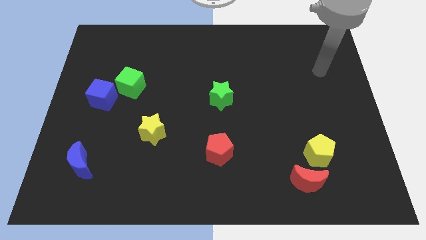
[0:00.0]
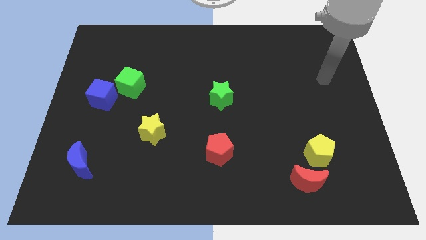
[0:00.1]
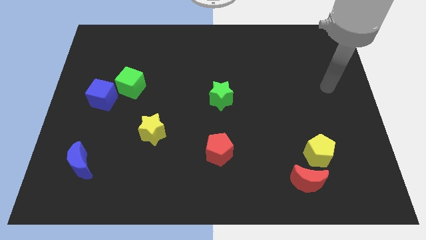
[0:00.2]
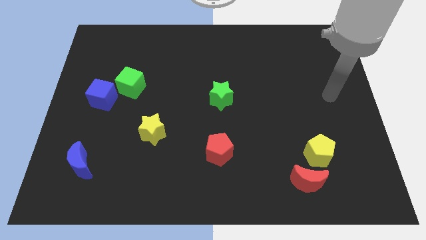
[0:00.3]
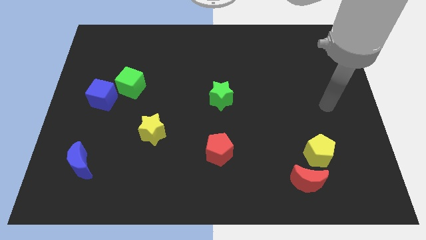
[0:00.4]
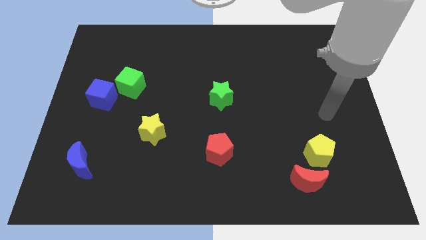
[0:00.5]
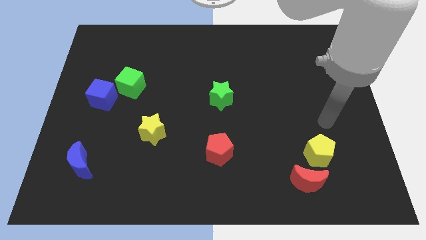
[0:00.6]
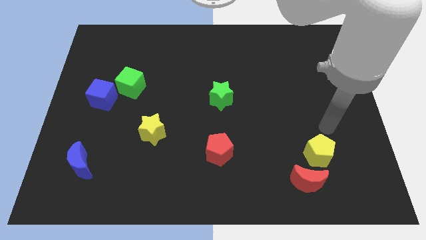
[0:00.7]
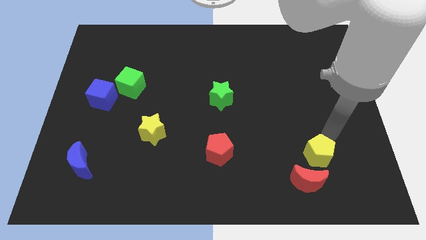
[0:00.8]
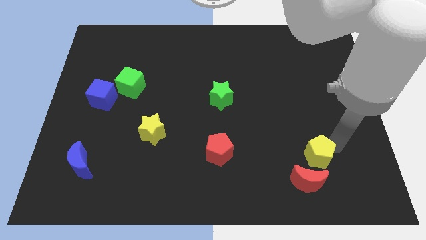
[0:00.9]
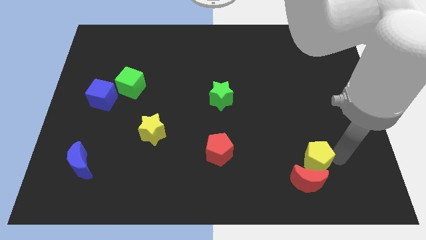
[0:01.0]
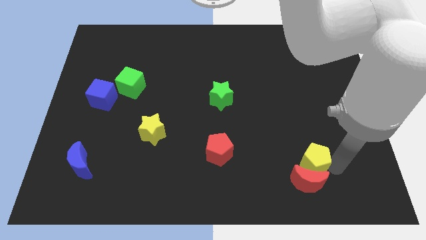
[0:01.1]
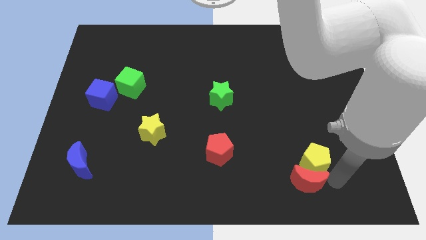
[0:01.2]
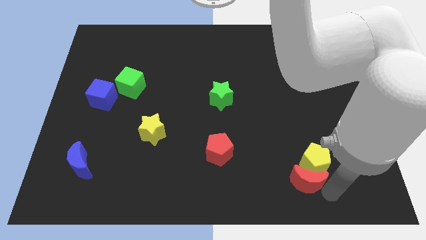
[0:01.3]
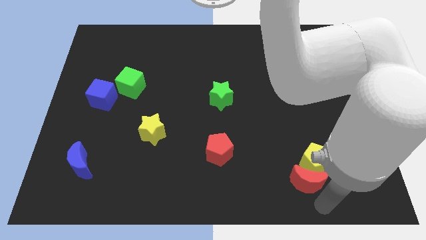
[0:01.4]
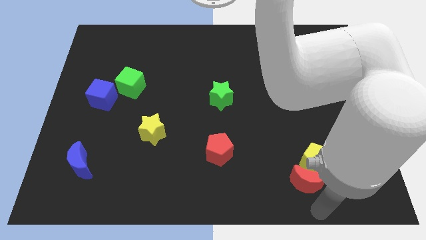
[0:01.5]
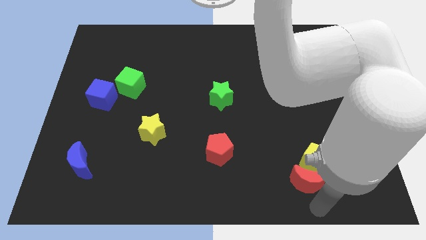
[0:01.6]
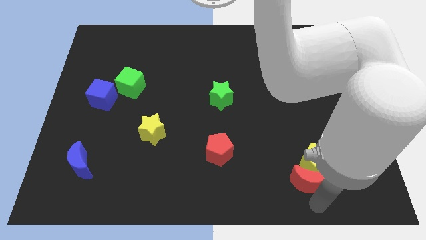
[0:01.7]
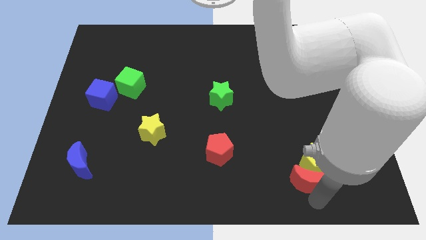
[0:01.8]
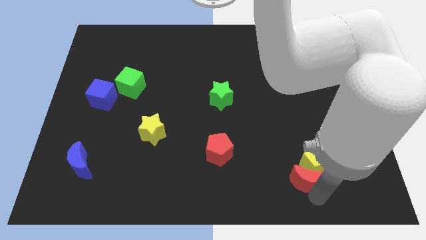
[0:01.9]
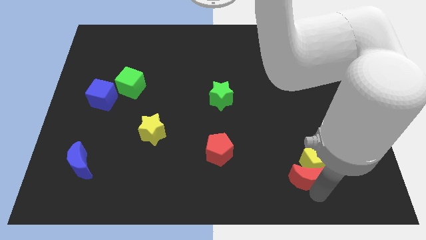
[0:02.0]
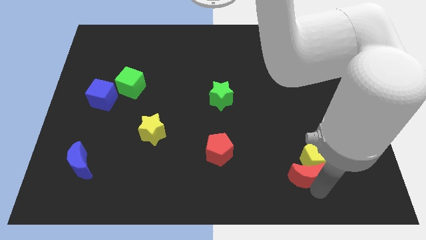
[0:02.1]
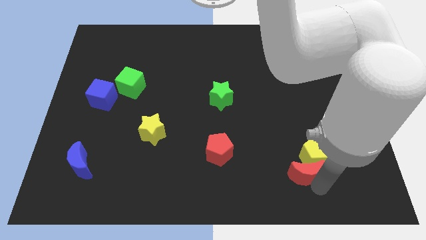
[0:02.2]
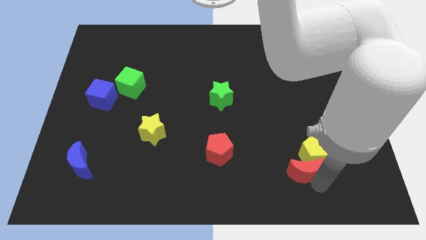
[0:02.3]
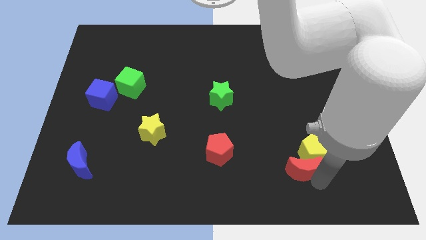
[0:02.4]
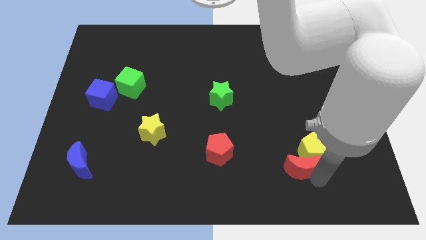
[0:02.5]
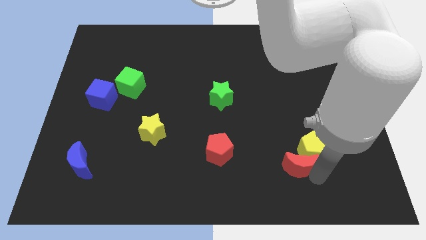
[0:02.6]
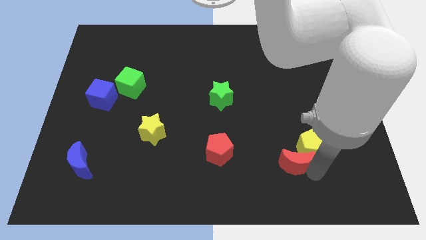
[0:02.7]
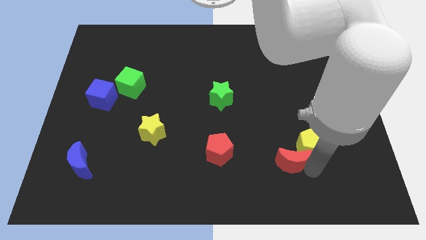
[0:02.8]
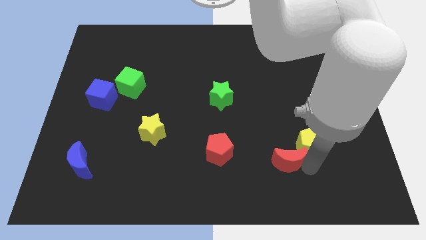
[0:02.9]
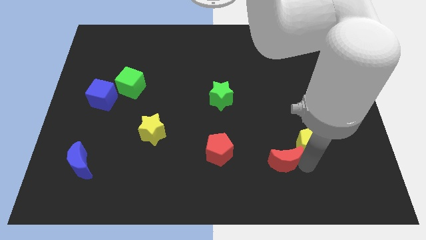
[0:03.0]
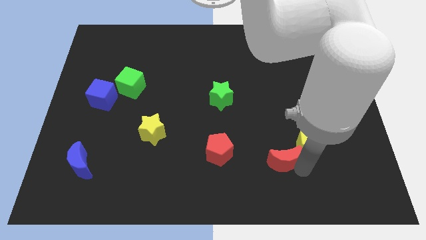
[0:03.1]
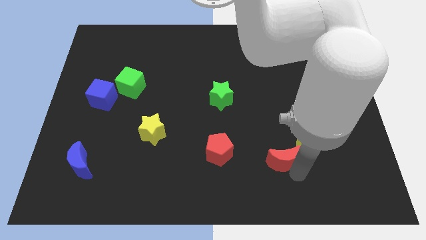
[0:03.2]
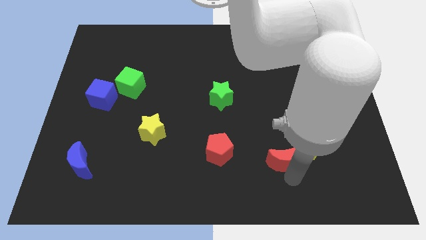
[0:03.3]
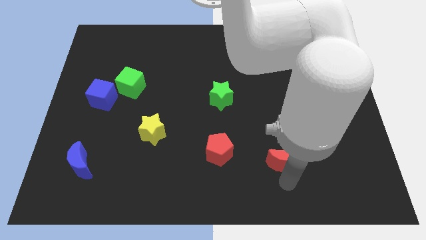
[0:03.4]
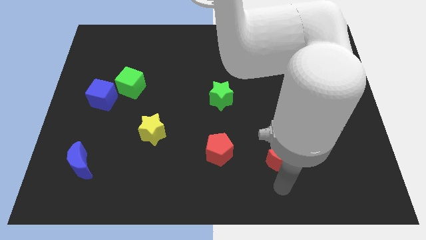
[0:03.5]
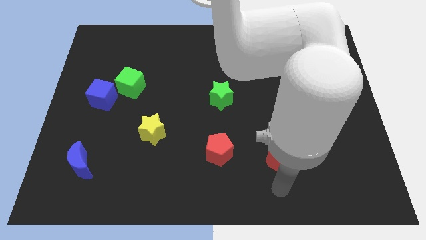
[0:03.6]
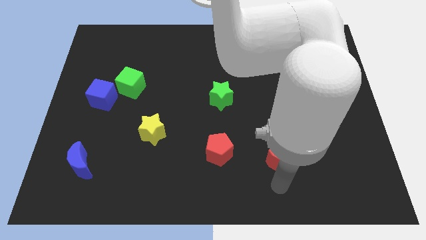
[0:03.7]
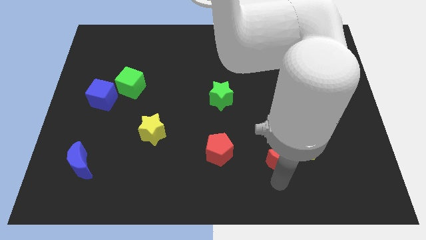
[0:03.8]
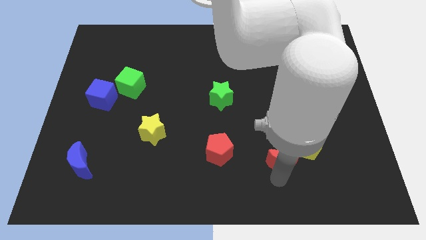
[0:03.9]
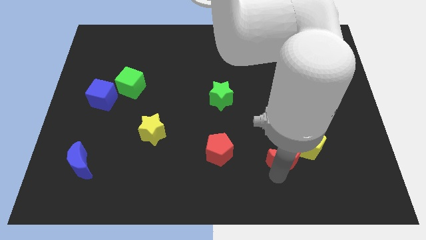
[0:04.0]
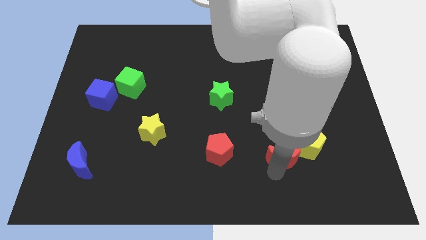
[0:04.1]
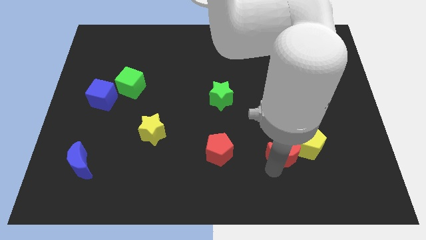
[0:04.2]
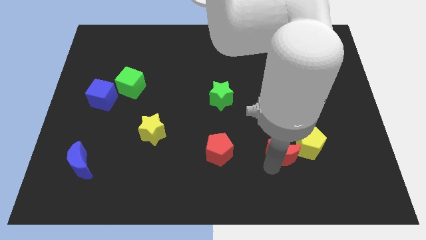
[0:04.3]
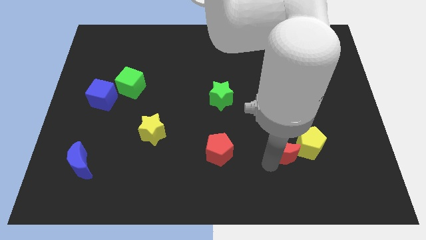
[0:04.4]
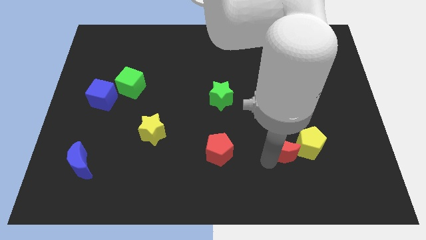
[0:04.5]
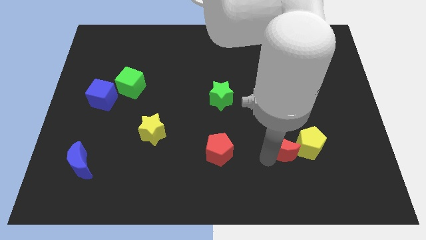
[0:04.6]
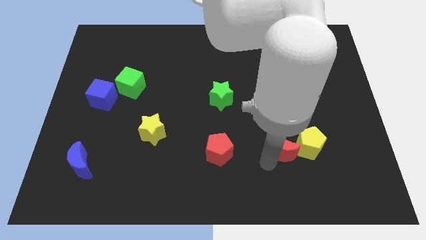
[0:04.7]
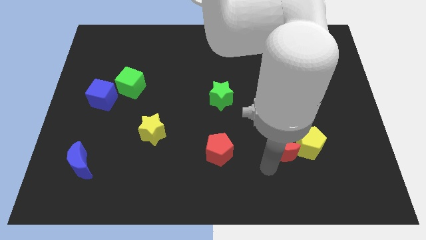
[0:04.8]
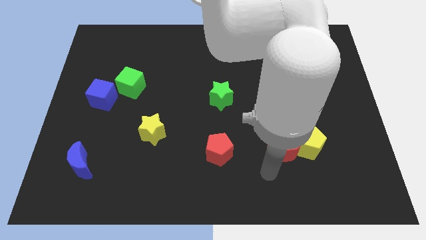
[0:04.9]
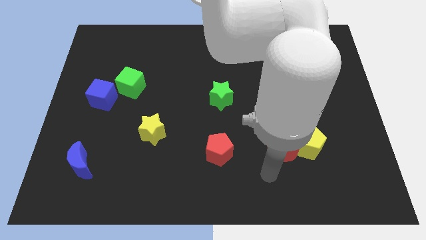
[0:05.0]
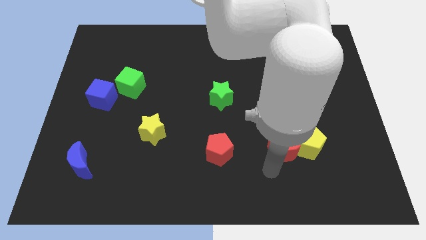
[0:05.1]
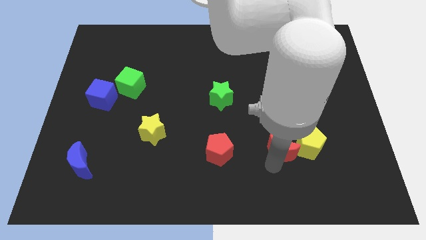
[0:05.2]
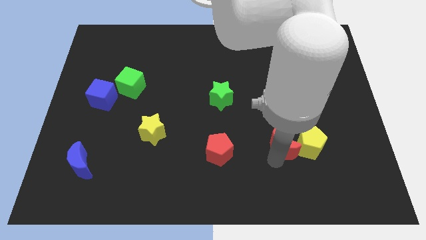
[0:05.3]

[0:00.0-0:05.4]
move the red moon a little bit up

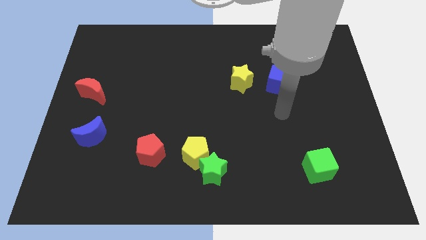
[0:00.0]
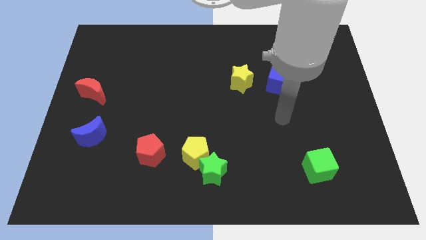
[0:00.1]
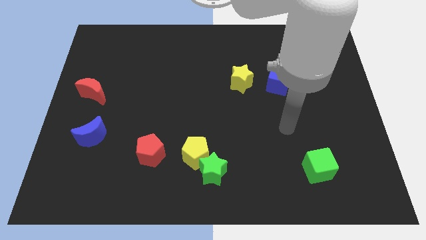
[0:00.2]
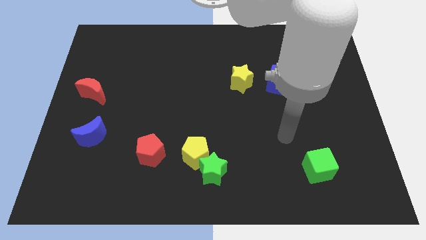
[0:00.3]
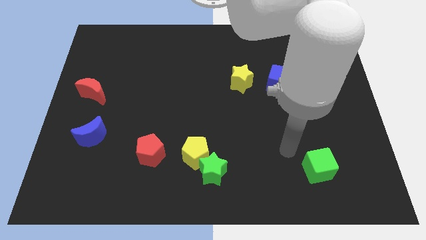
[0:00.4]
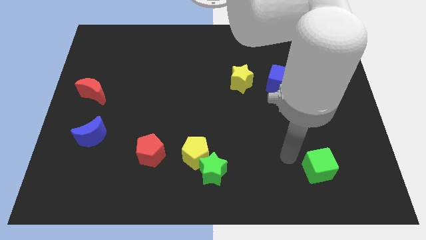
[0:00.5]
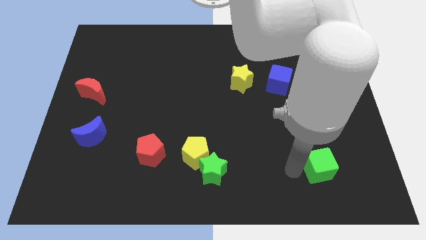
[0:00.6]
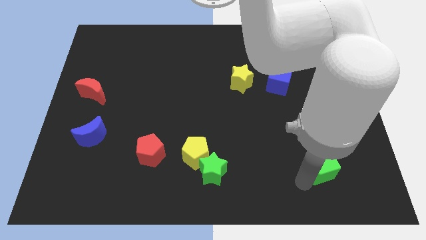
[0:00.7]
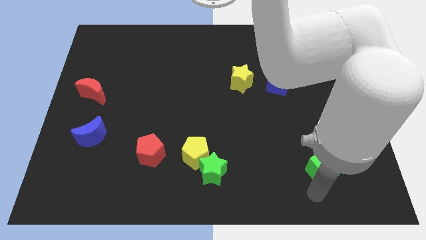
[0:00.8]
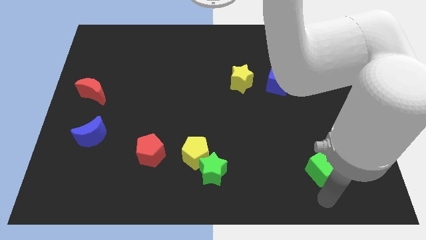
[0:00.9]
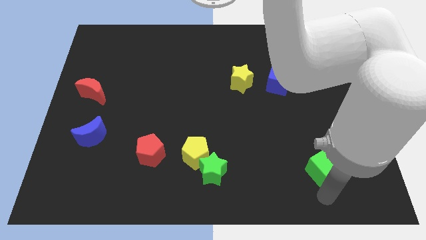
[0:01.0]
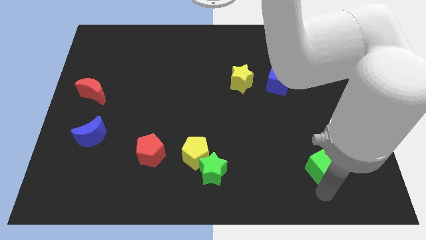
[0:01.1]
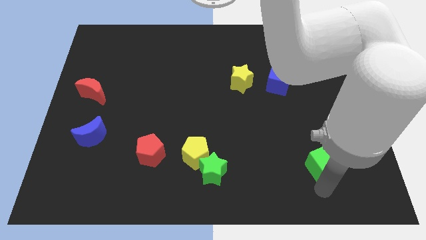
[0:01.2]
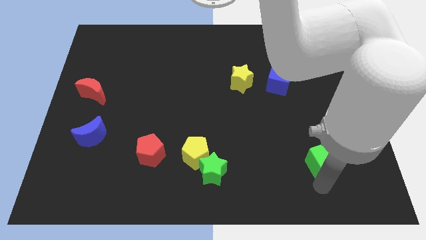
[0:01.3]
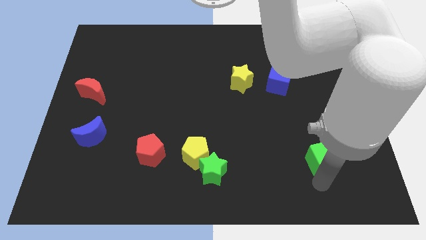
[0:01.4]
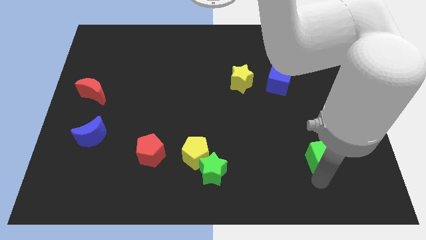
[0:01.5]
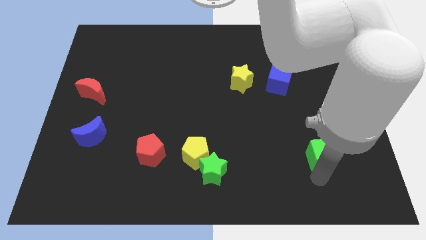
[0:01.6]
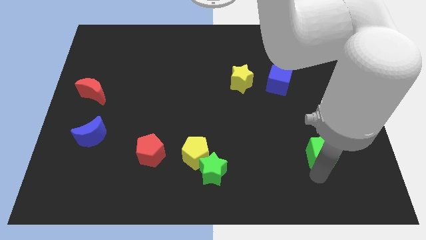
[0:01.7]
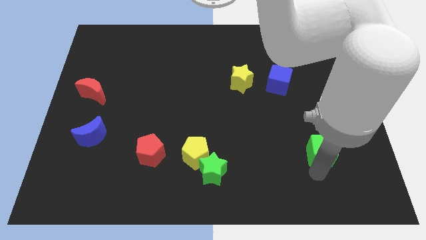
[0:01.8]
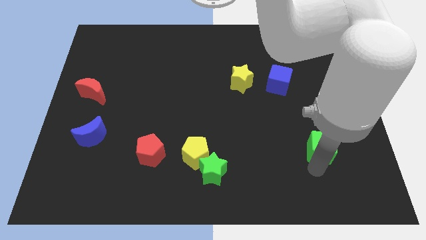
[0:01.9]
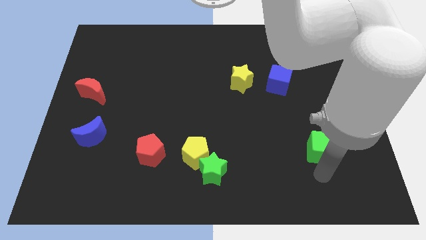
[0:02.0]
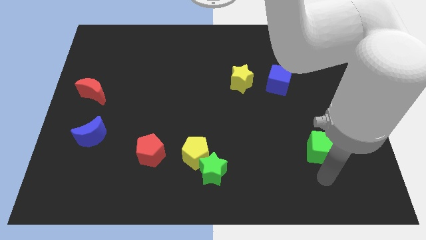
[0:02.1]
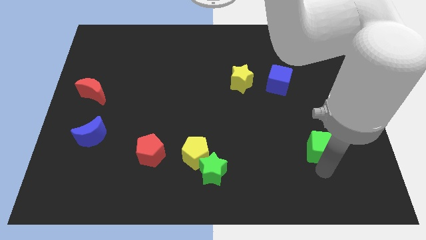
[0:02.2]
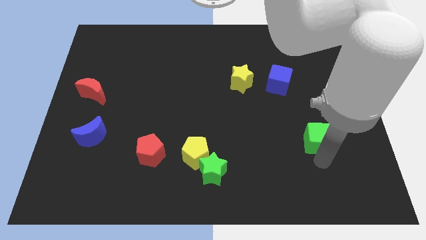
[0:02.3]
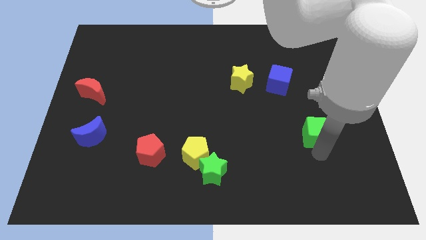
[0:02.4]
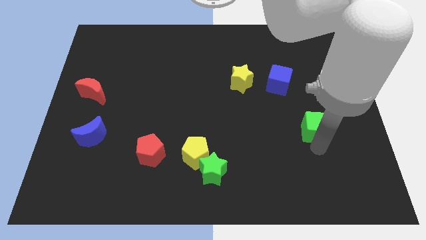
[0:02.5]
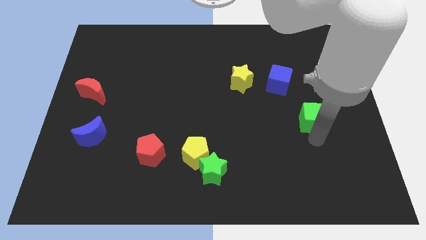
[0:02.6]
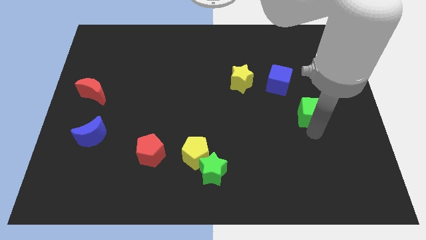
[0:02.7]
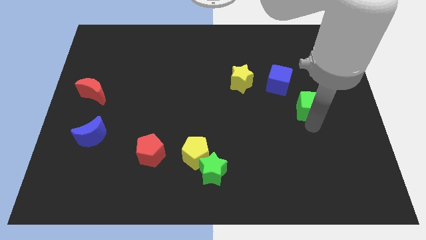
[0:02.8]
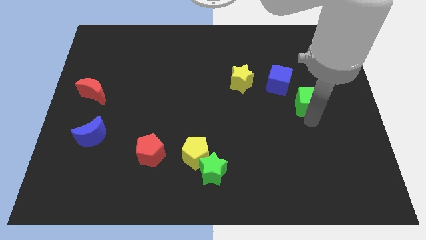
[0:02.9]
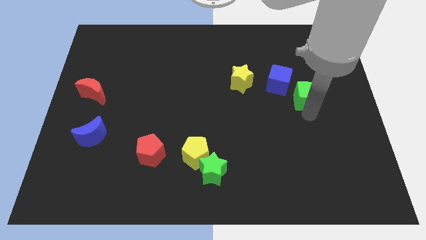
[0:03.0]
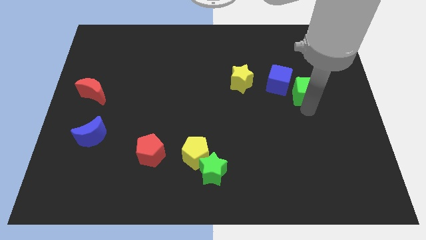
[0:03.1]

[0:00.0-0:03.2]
slide the green cube upwards
